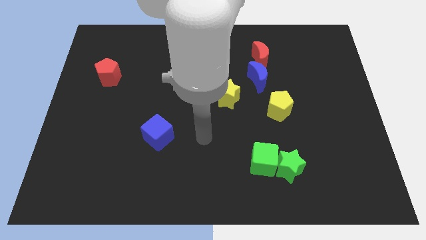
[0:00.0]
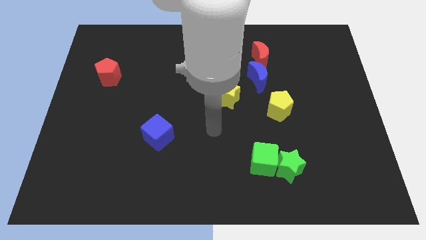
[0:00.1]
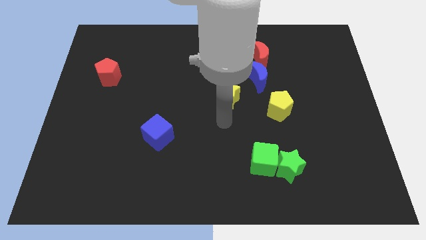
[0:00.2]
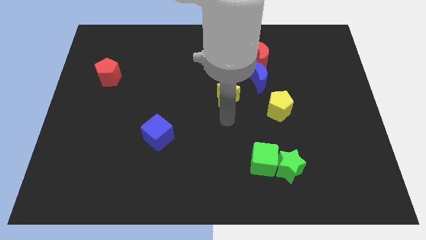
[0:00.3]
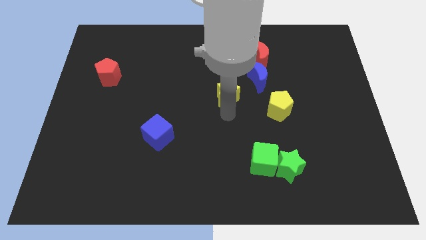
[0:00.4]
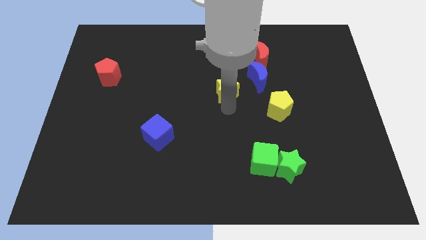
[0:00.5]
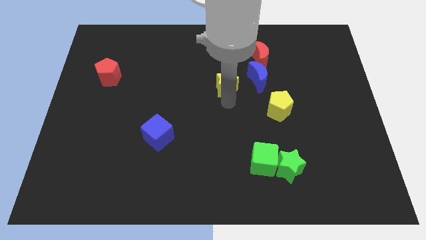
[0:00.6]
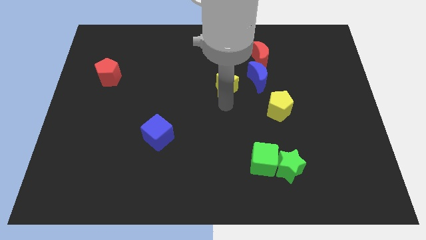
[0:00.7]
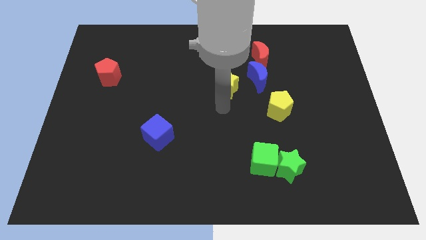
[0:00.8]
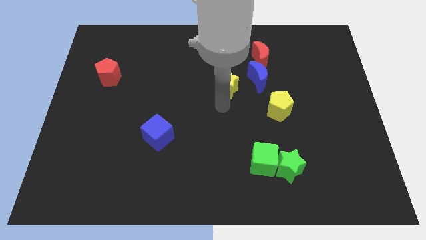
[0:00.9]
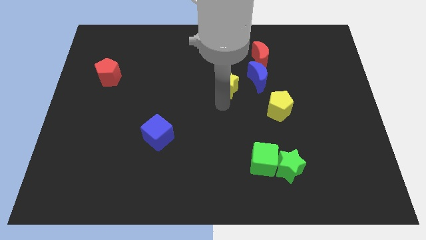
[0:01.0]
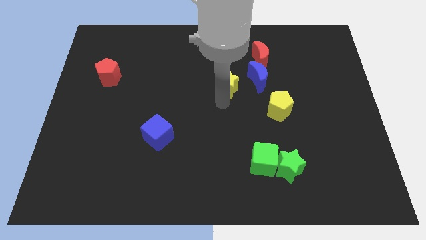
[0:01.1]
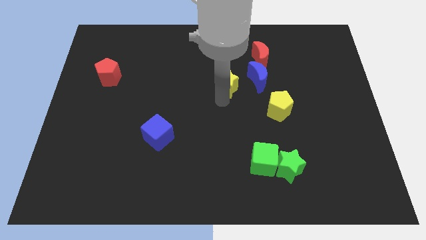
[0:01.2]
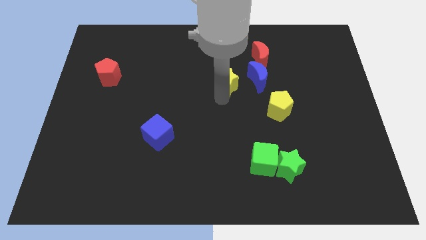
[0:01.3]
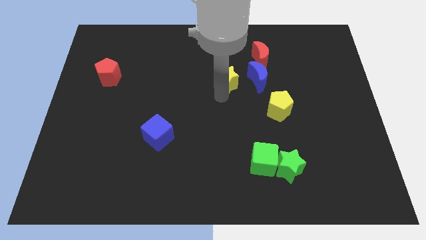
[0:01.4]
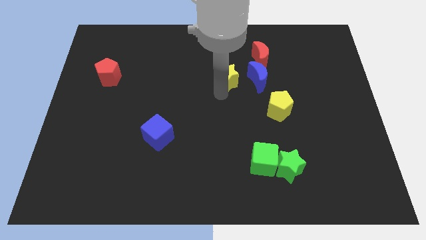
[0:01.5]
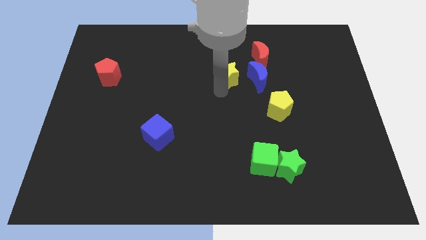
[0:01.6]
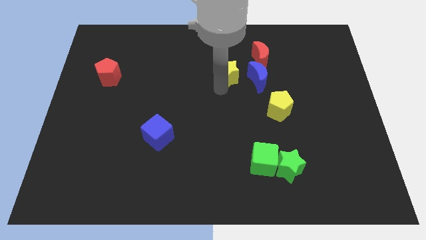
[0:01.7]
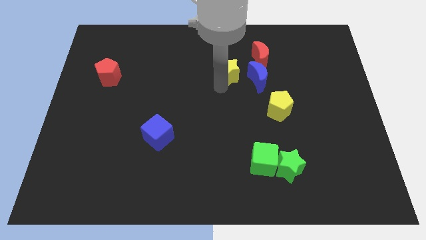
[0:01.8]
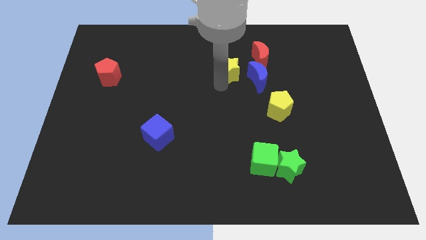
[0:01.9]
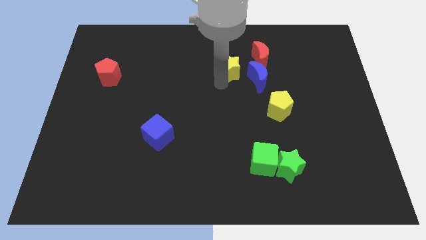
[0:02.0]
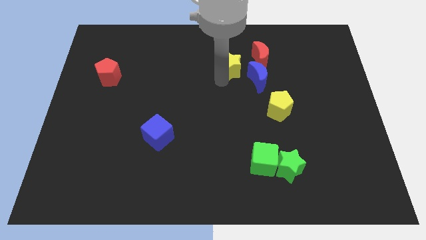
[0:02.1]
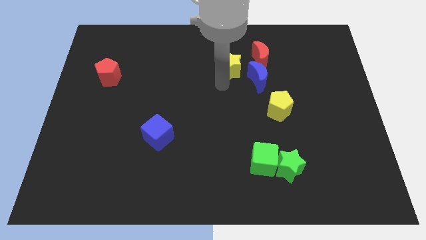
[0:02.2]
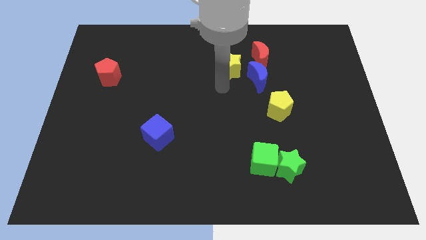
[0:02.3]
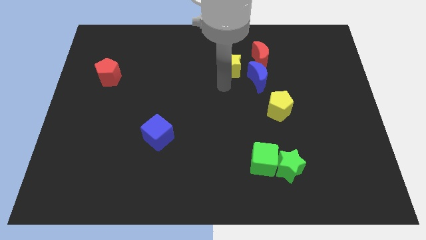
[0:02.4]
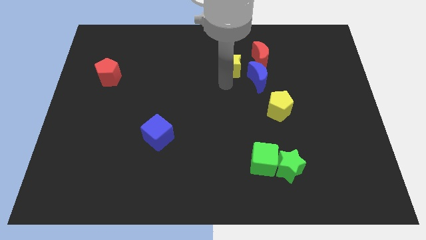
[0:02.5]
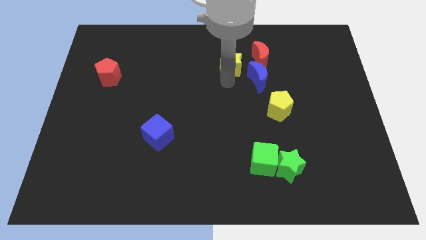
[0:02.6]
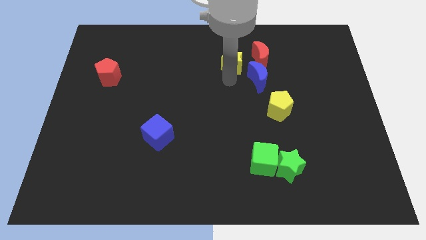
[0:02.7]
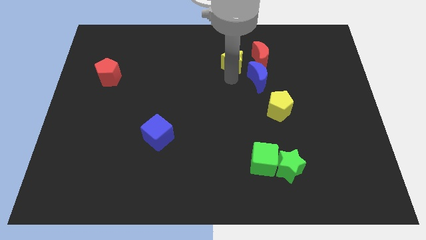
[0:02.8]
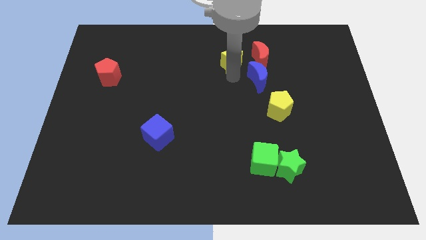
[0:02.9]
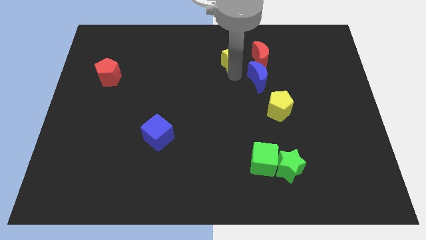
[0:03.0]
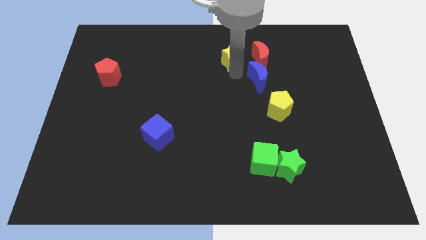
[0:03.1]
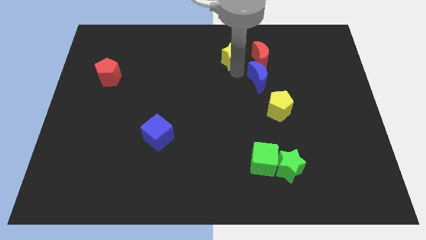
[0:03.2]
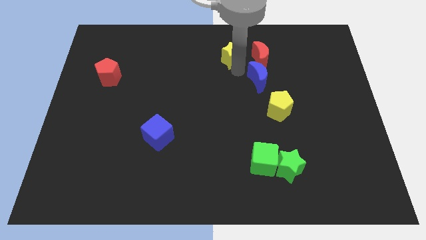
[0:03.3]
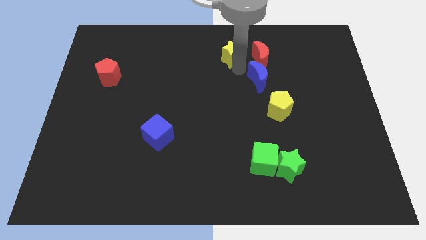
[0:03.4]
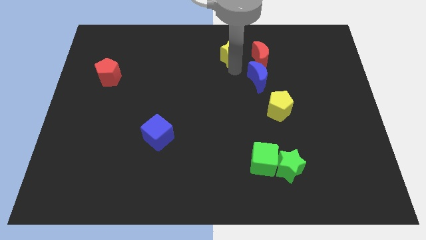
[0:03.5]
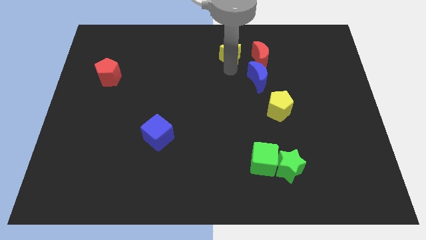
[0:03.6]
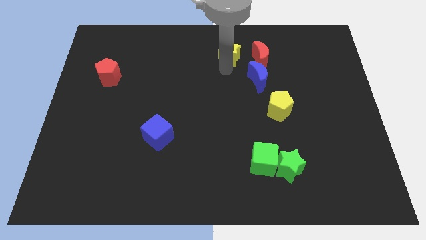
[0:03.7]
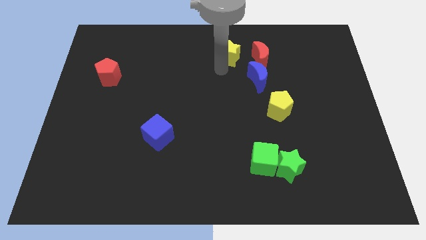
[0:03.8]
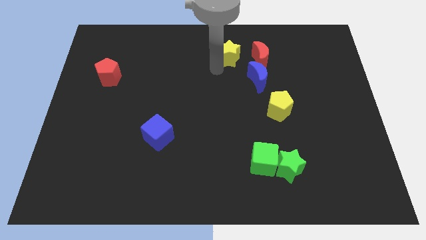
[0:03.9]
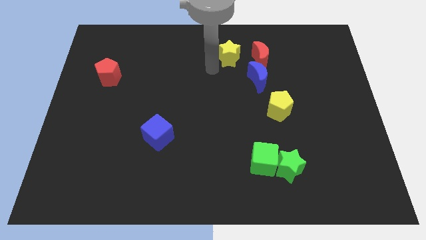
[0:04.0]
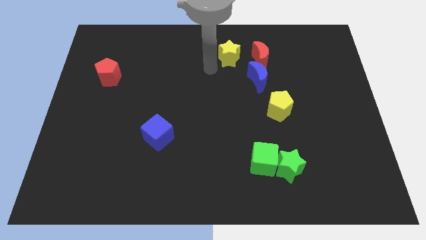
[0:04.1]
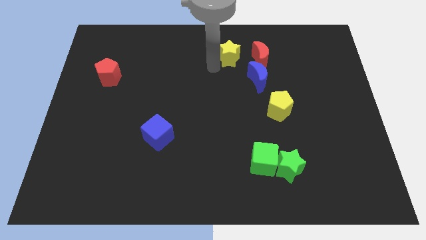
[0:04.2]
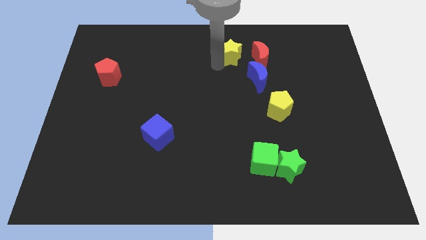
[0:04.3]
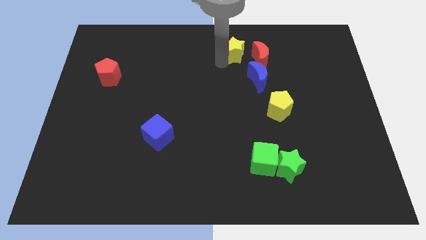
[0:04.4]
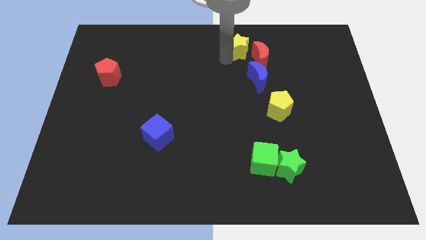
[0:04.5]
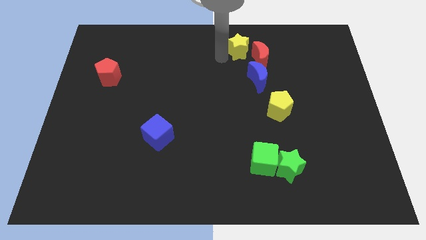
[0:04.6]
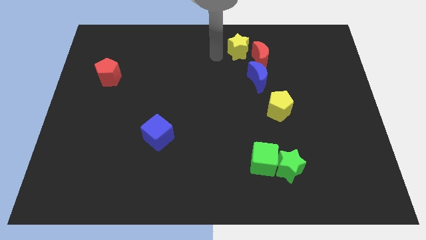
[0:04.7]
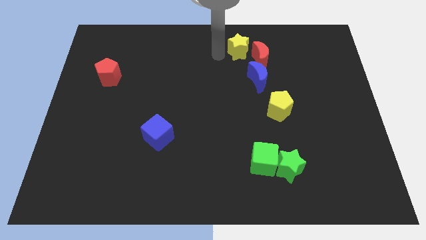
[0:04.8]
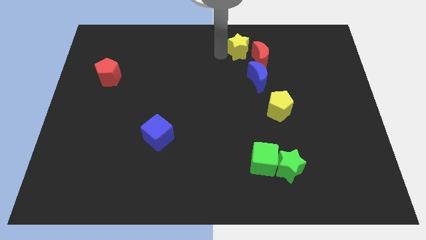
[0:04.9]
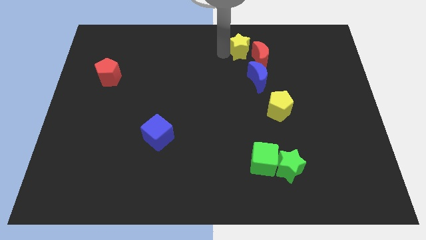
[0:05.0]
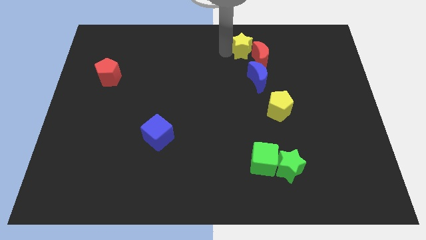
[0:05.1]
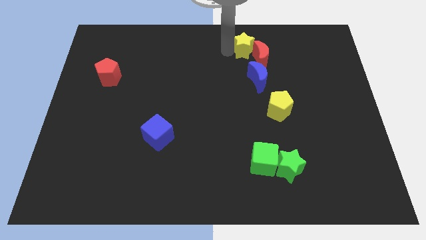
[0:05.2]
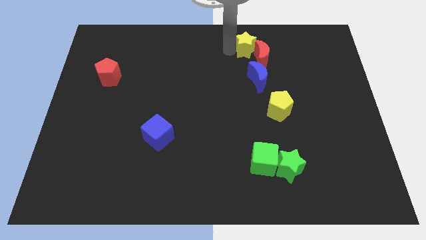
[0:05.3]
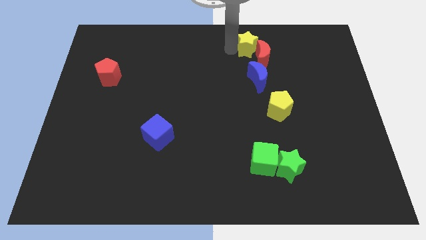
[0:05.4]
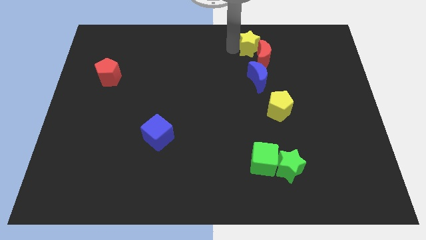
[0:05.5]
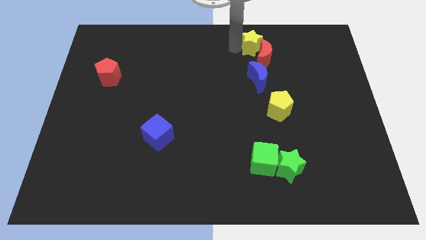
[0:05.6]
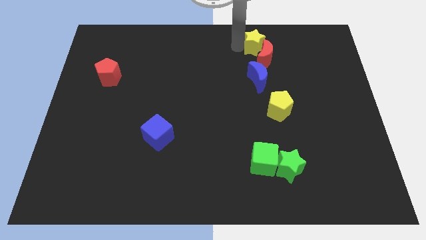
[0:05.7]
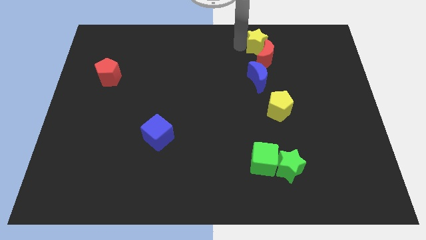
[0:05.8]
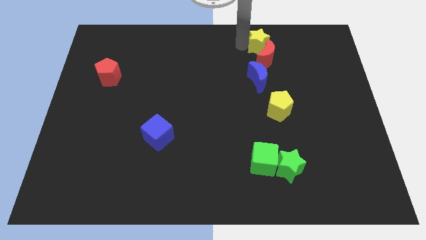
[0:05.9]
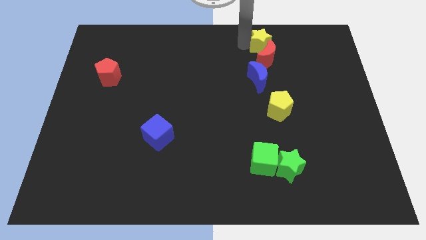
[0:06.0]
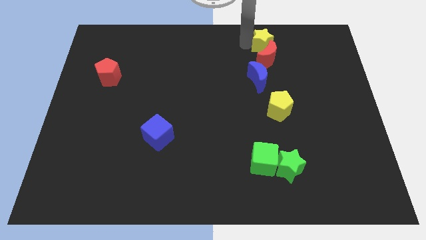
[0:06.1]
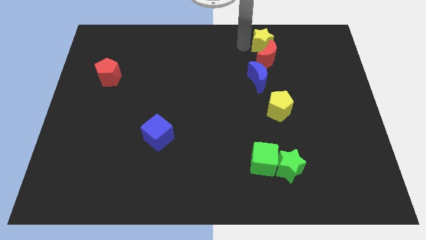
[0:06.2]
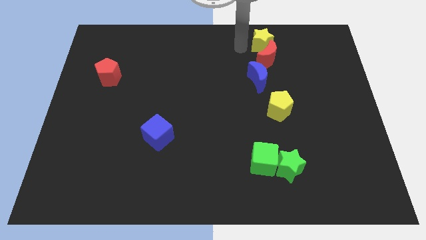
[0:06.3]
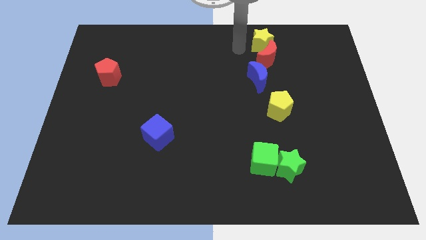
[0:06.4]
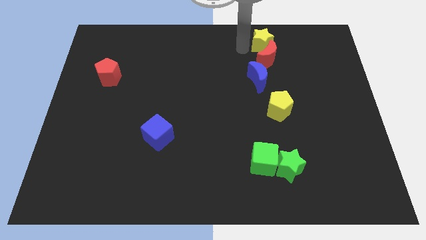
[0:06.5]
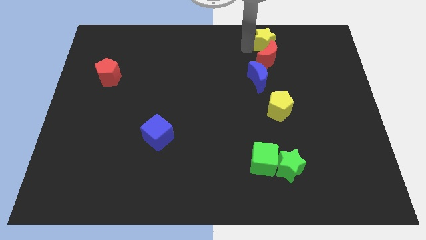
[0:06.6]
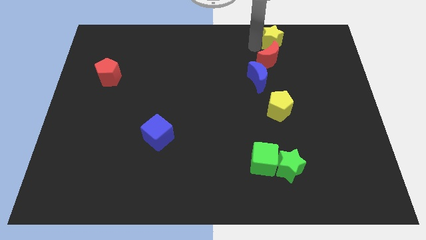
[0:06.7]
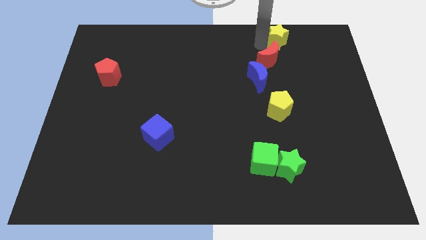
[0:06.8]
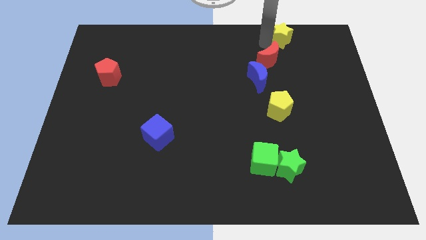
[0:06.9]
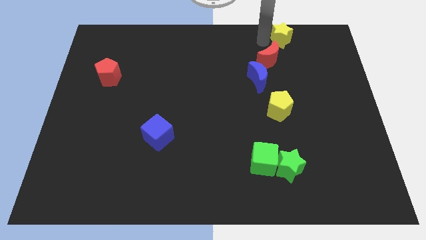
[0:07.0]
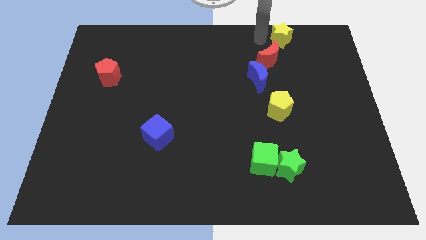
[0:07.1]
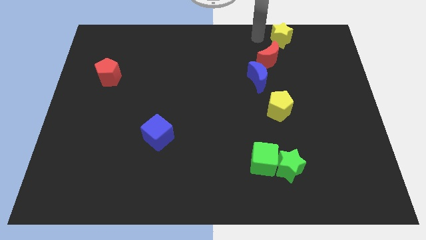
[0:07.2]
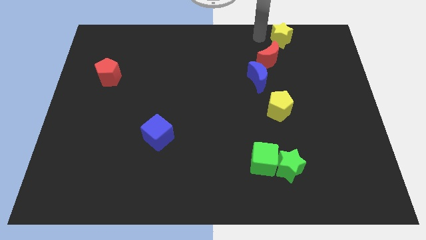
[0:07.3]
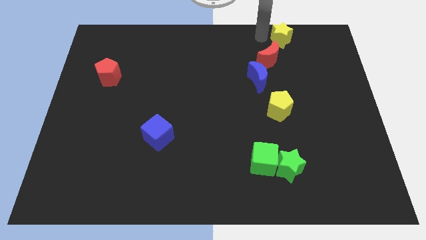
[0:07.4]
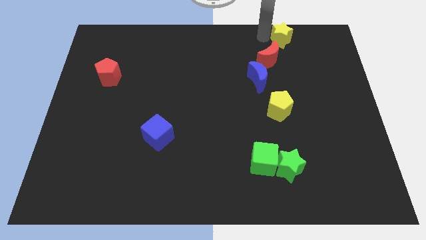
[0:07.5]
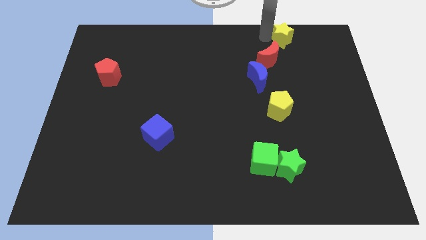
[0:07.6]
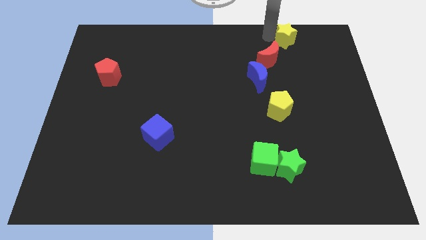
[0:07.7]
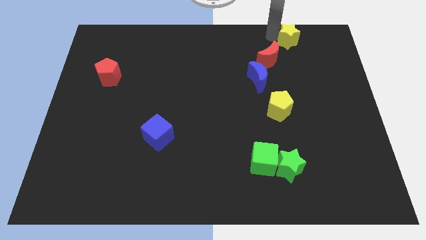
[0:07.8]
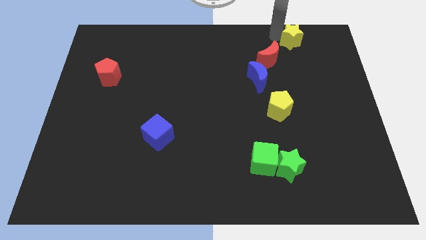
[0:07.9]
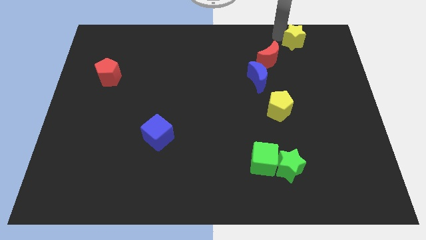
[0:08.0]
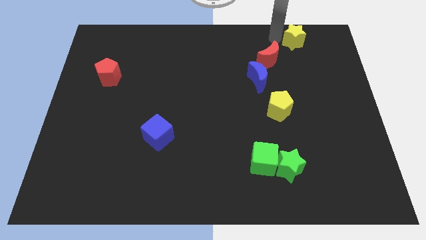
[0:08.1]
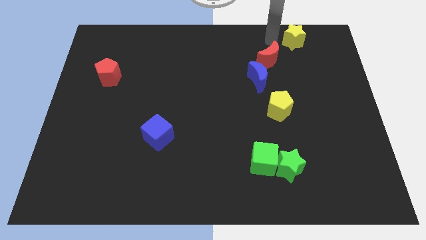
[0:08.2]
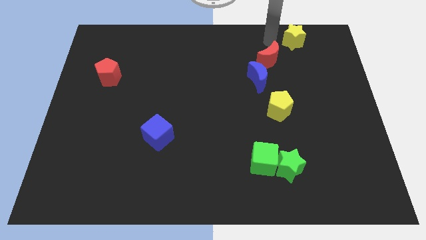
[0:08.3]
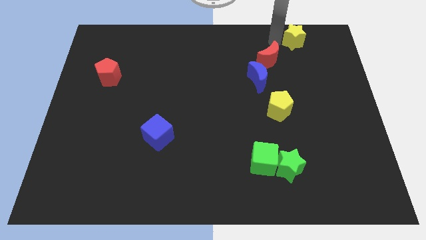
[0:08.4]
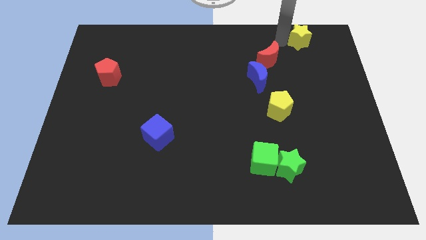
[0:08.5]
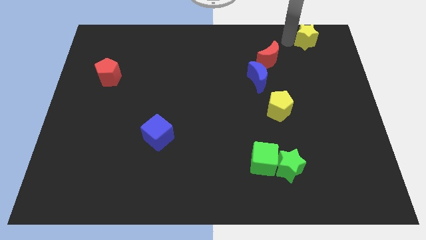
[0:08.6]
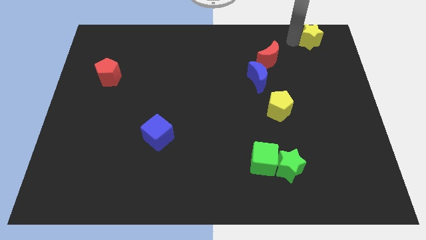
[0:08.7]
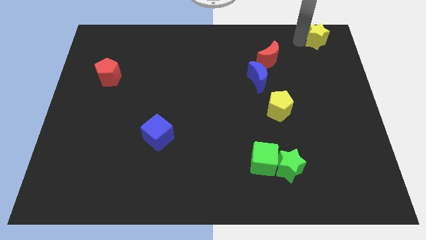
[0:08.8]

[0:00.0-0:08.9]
slide the yellow star to the top right
